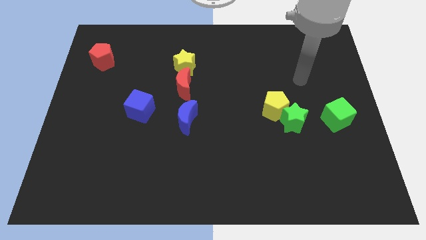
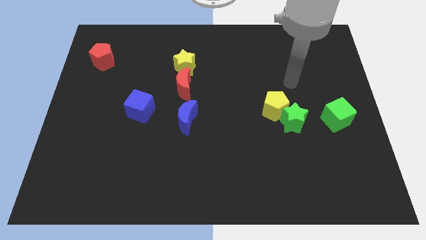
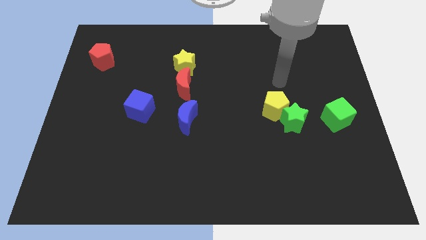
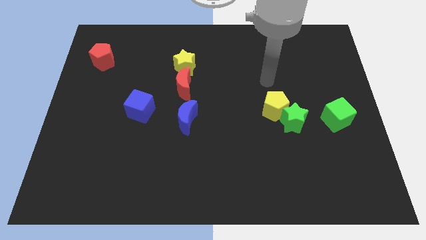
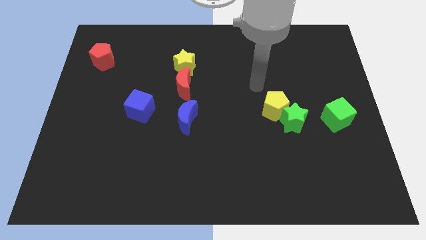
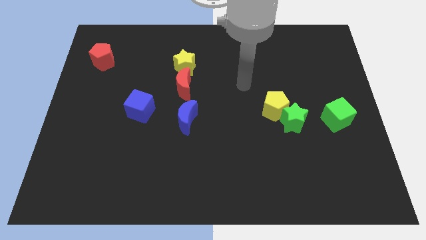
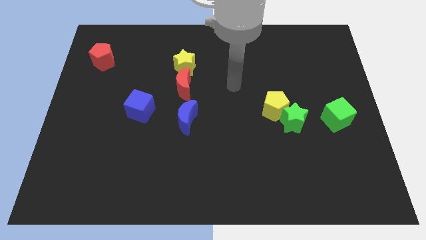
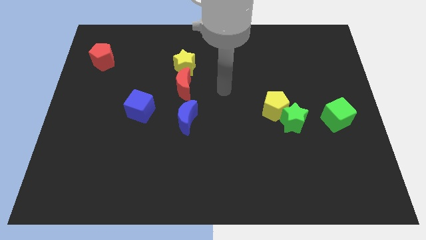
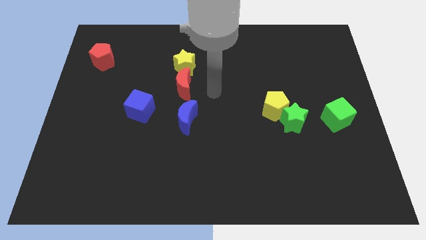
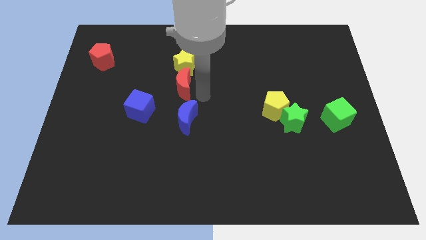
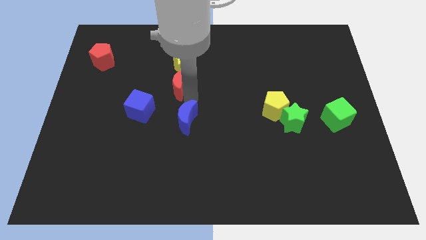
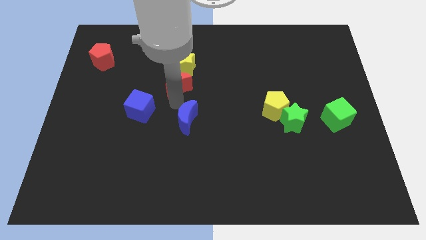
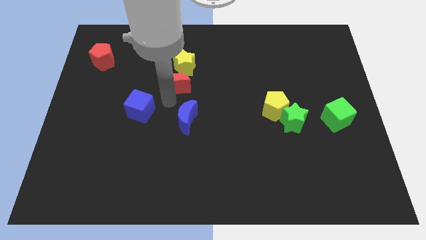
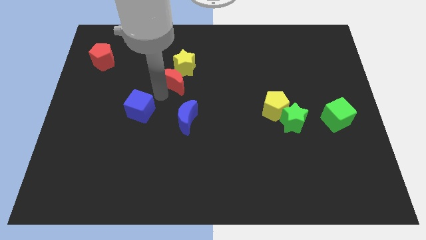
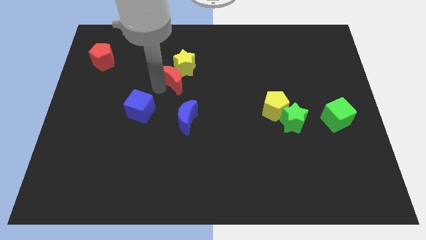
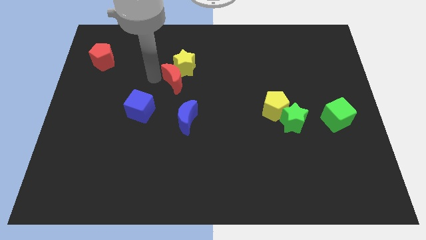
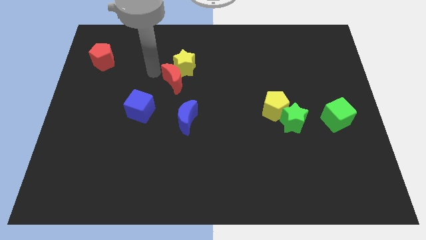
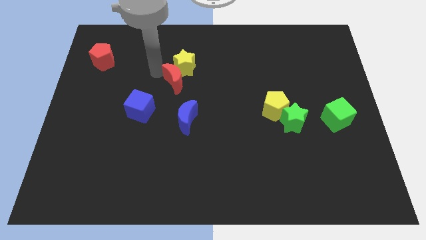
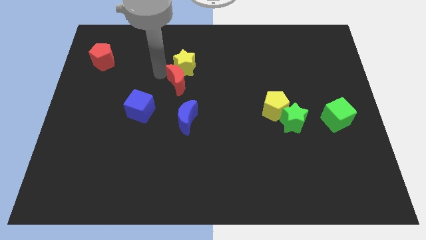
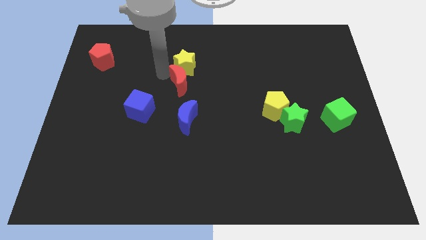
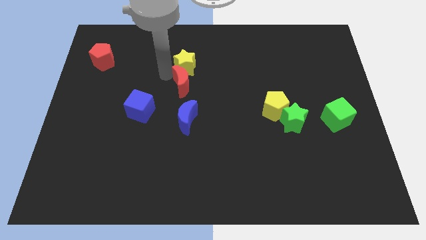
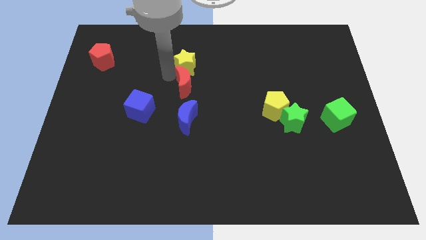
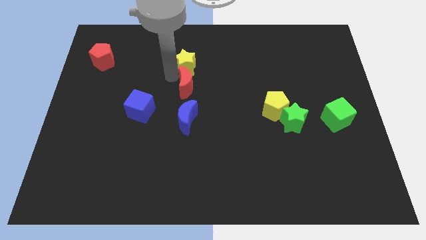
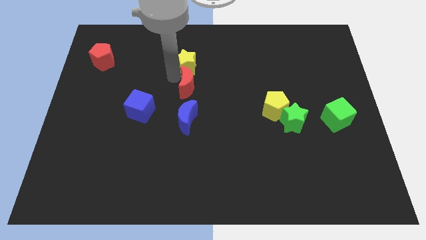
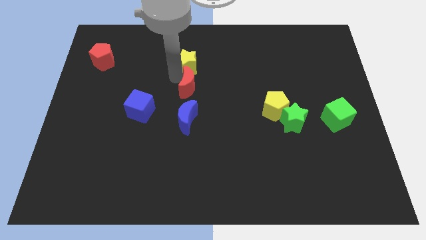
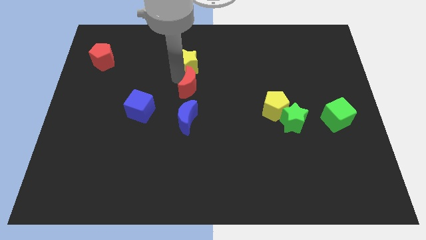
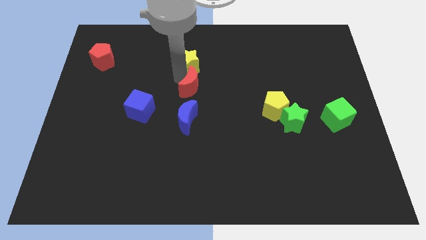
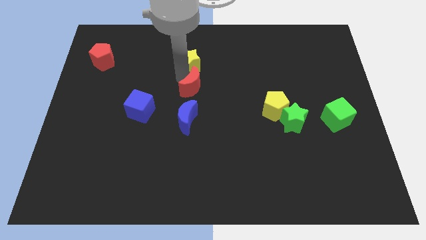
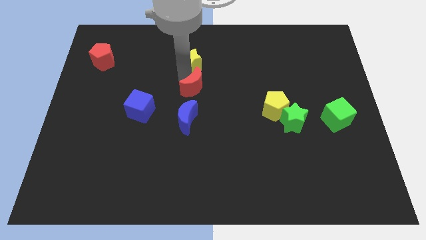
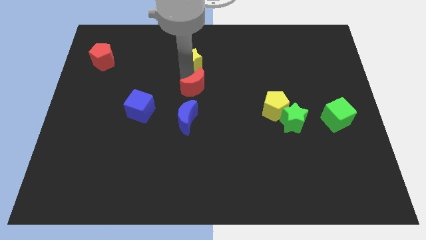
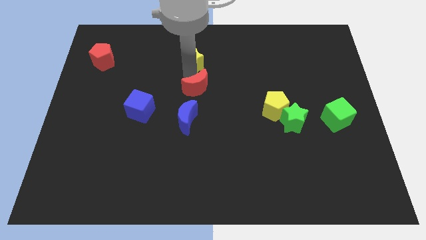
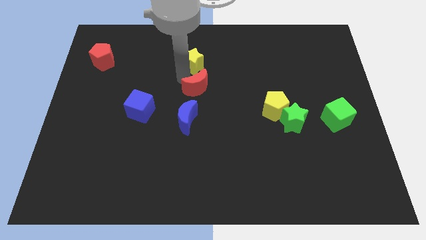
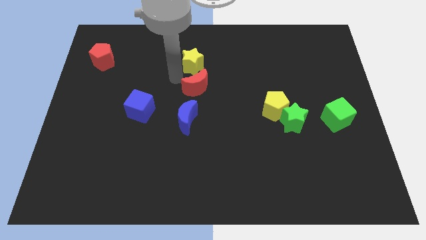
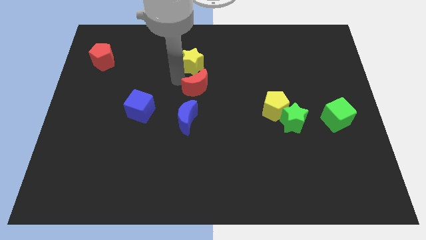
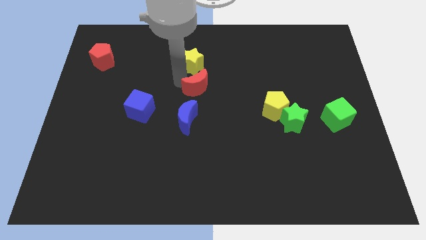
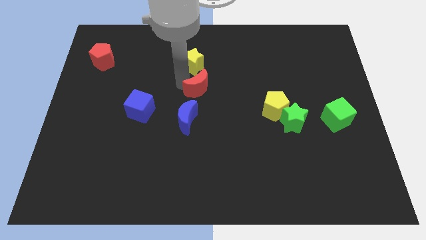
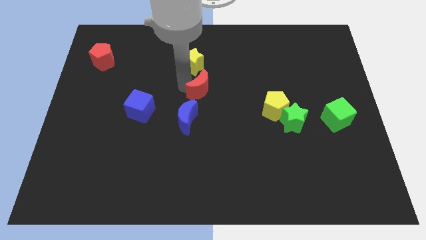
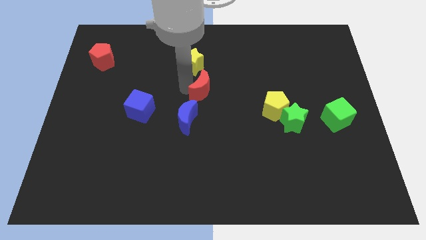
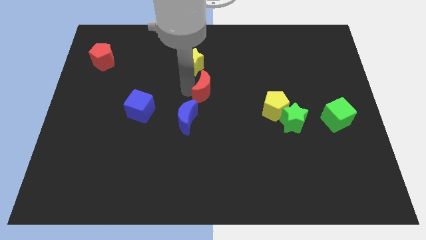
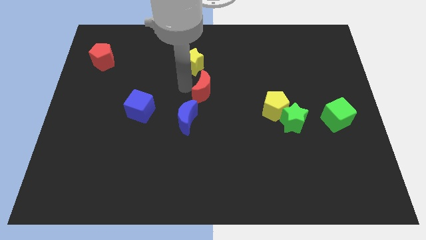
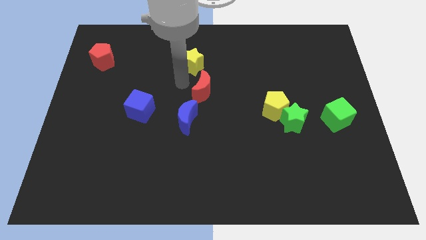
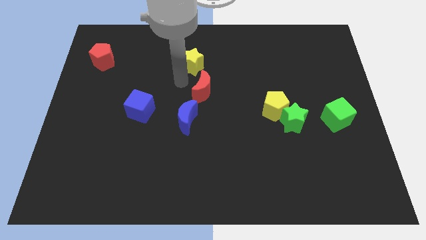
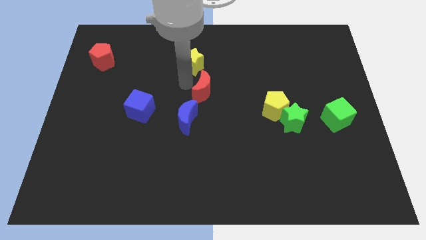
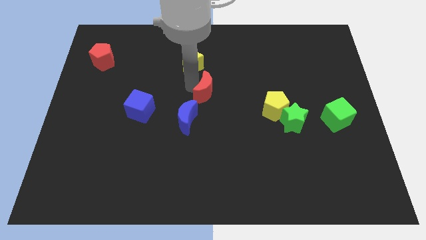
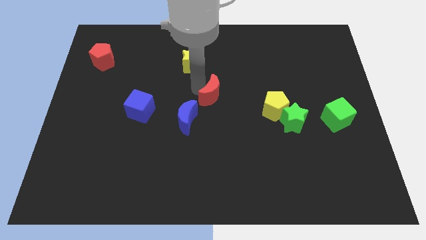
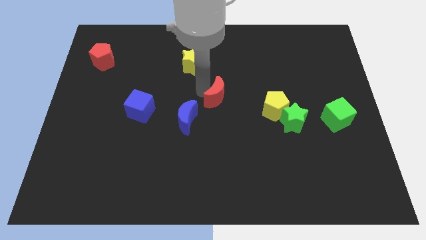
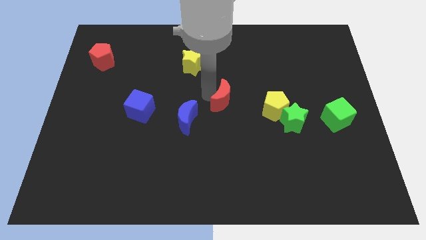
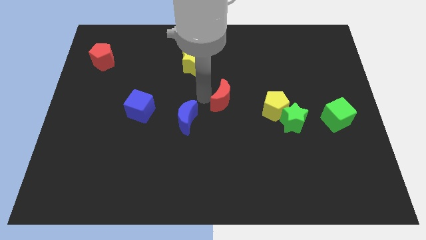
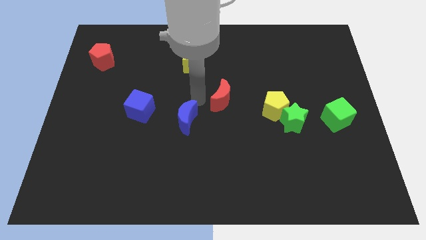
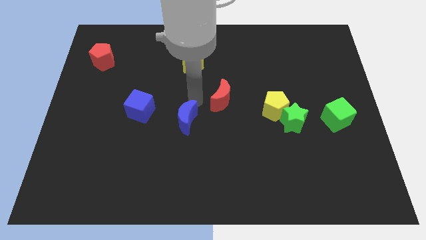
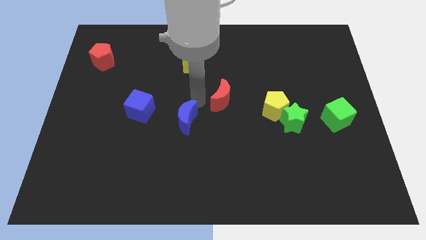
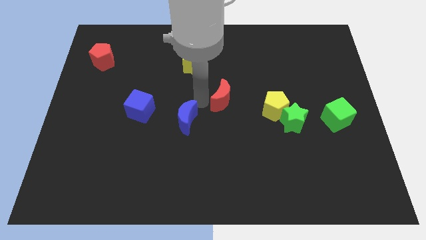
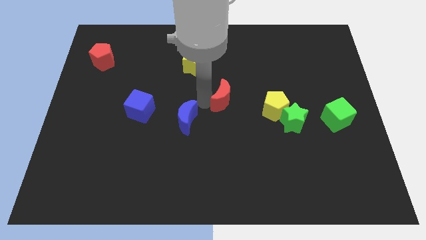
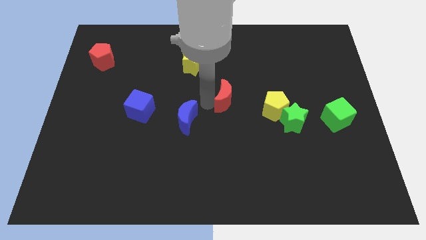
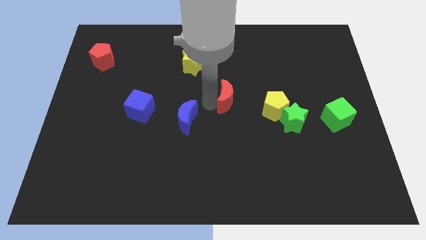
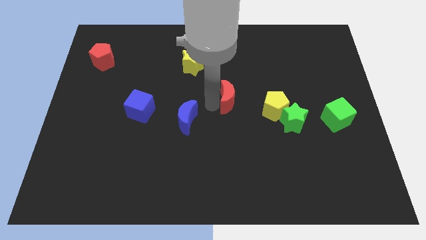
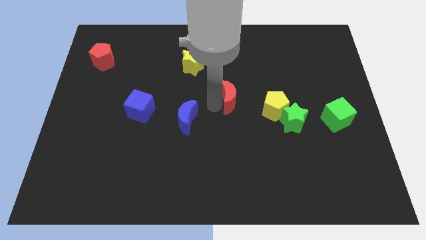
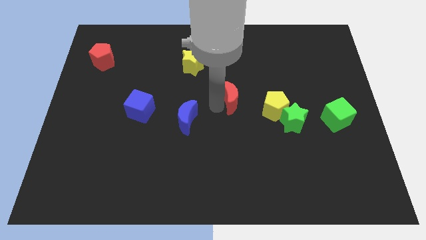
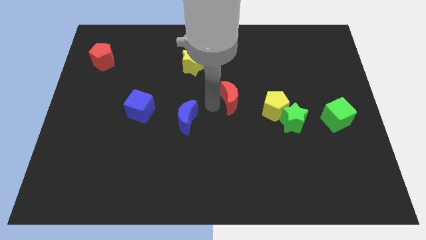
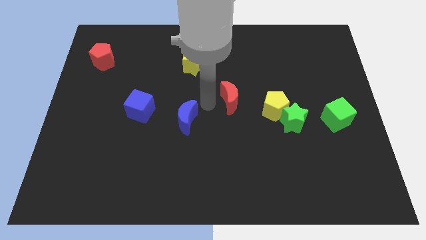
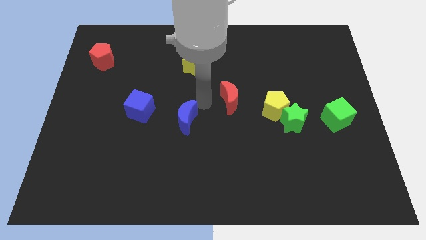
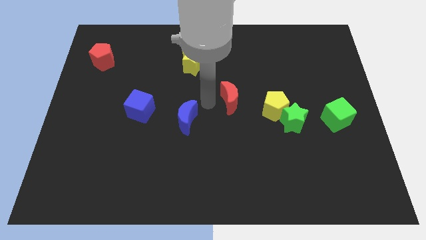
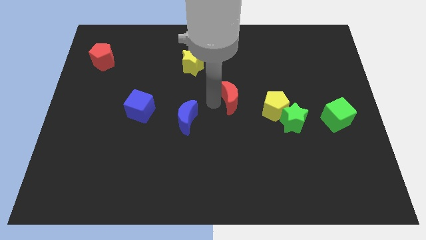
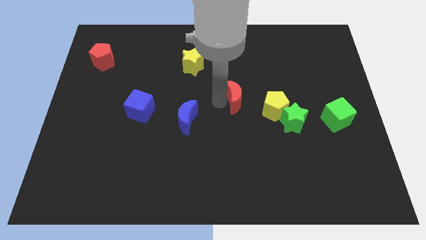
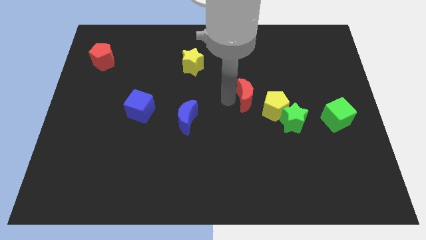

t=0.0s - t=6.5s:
push the red moon to the top left side of the green star

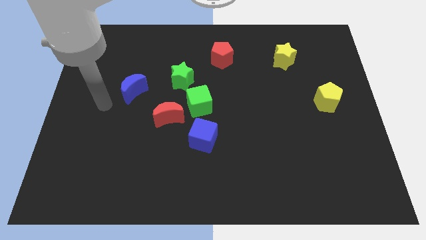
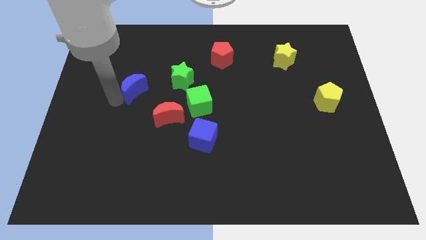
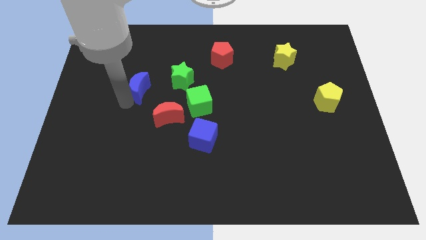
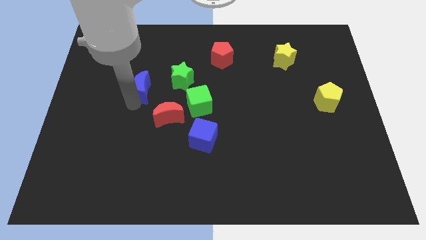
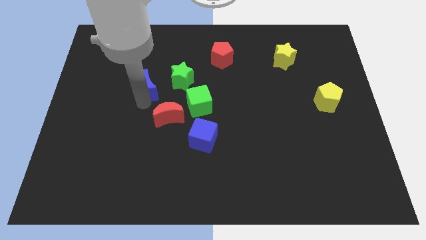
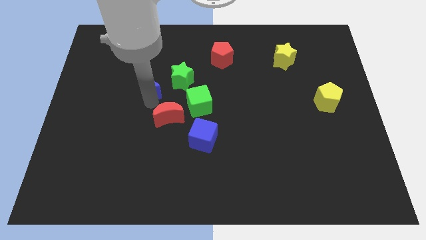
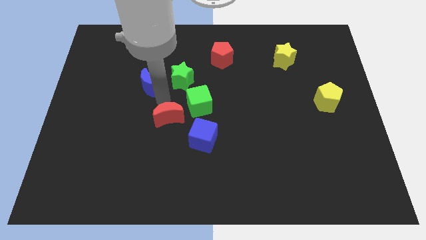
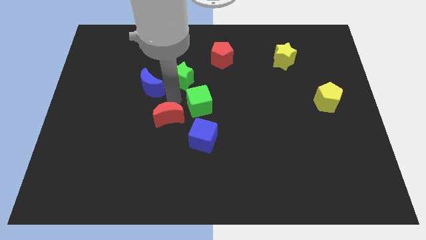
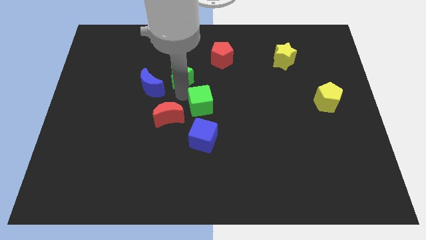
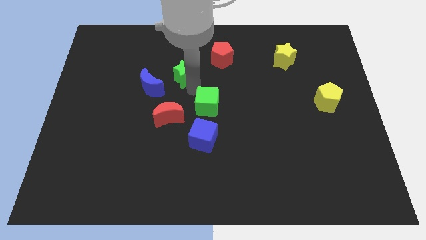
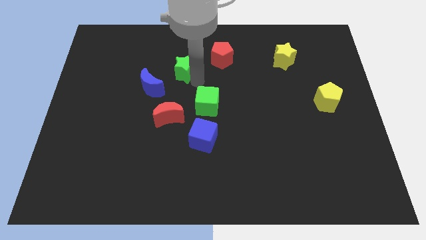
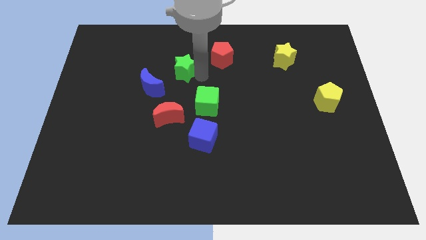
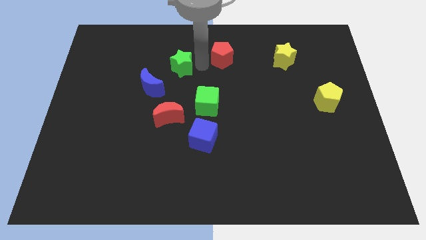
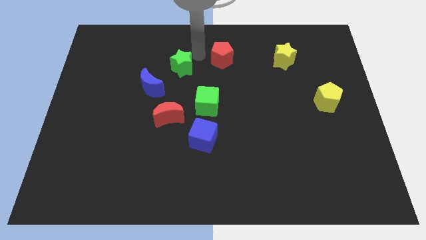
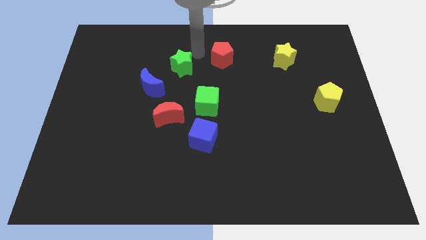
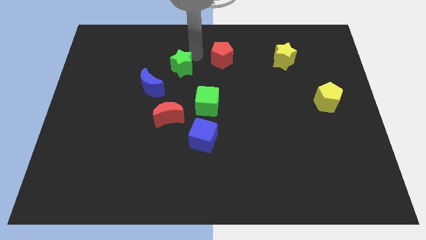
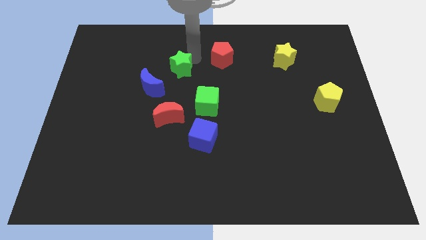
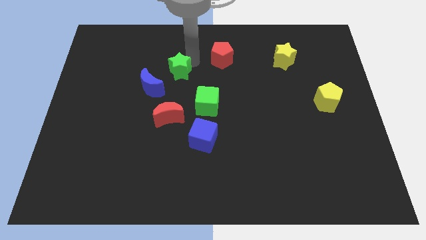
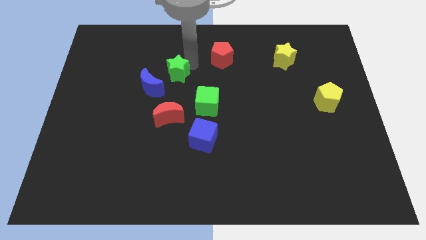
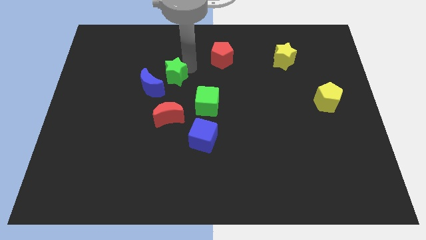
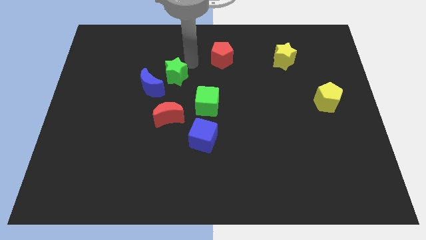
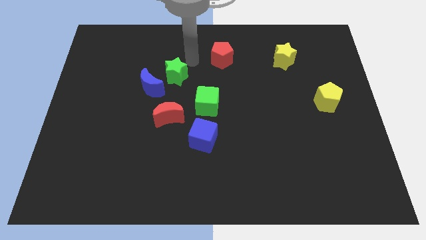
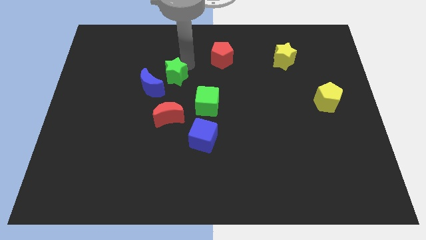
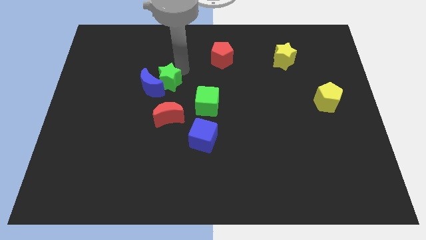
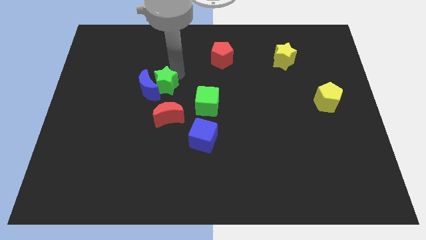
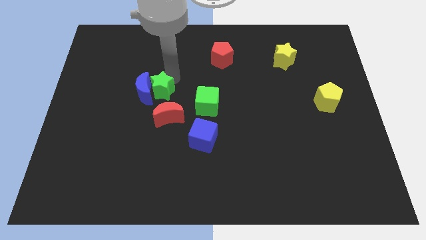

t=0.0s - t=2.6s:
move the green star to the top left side of the red moon
